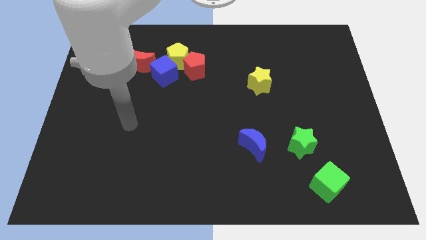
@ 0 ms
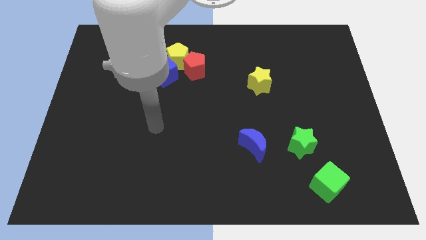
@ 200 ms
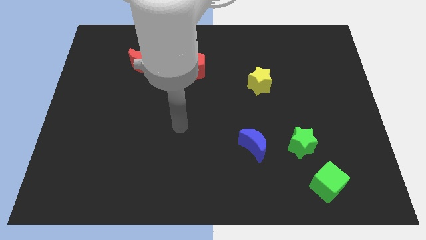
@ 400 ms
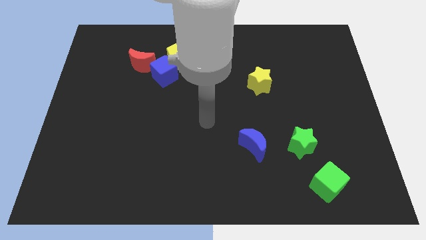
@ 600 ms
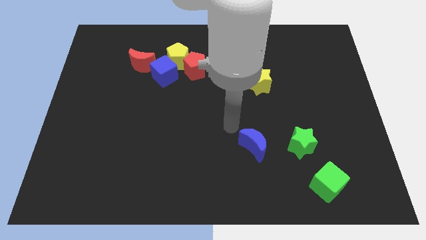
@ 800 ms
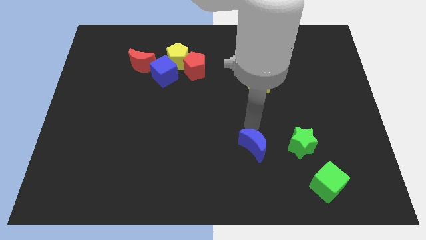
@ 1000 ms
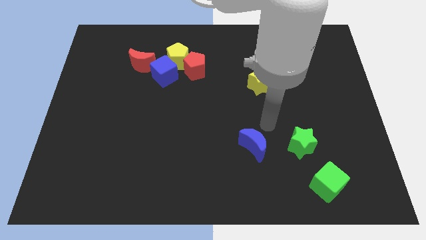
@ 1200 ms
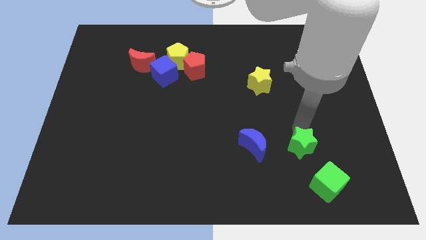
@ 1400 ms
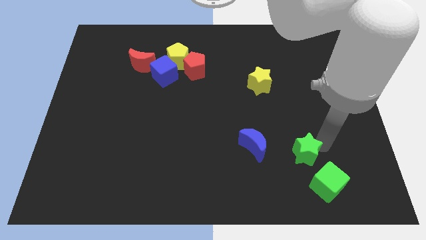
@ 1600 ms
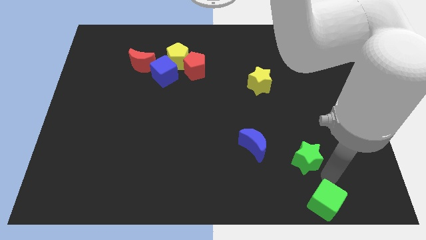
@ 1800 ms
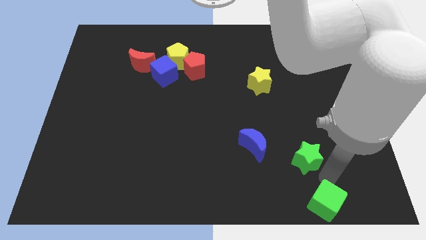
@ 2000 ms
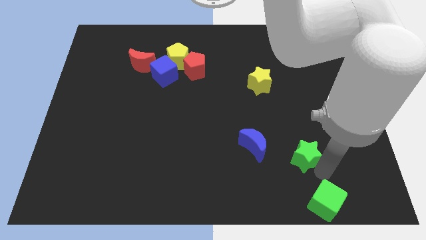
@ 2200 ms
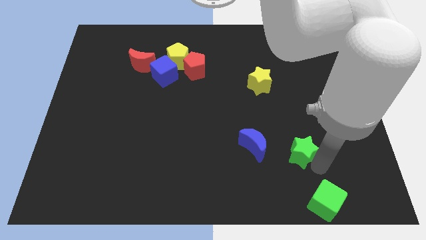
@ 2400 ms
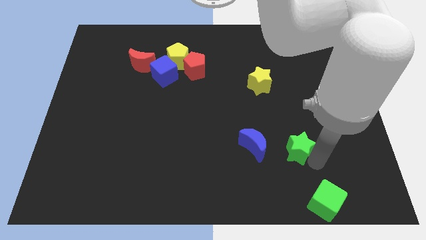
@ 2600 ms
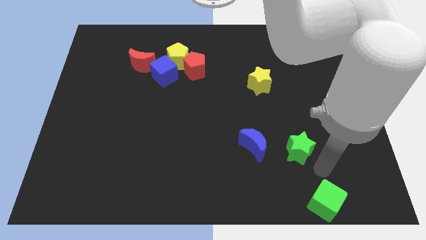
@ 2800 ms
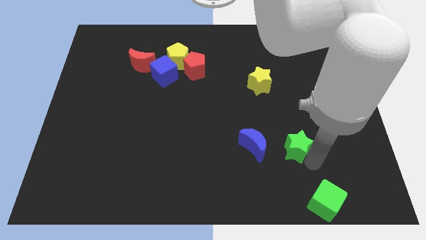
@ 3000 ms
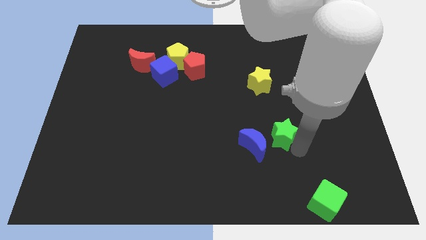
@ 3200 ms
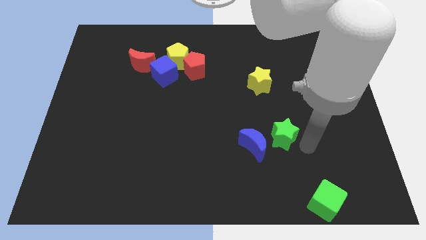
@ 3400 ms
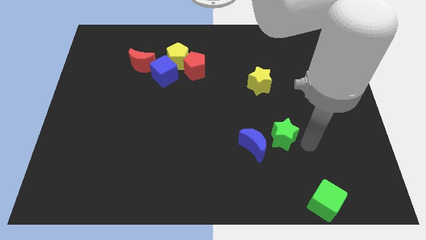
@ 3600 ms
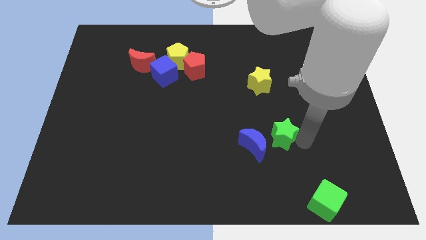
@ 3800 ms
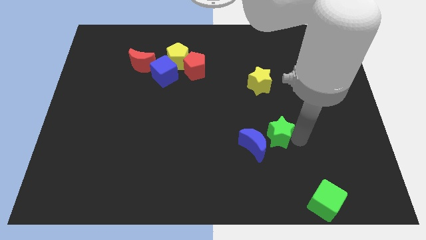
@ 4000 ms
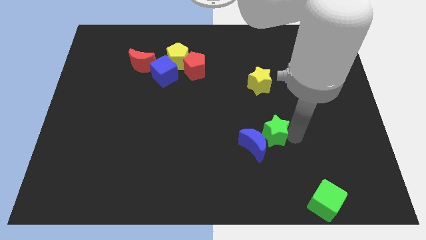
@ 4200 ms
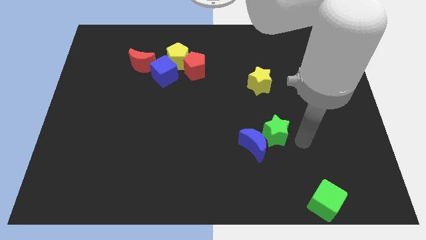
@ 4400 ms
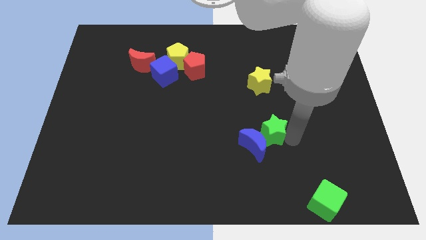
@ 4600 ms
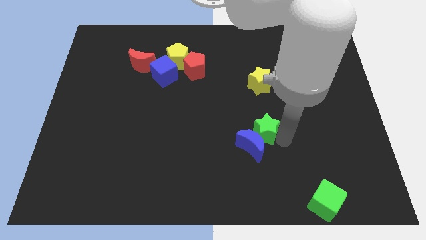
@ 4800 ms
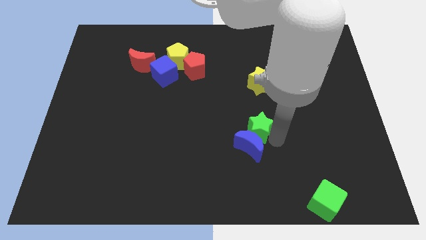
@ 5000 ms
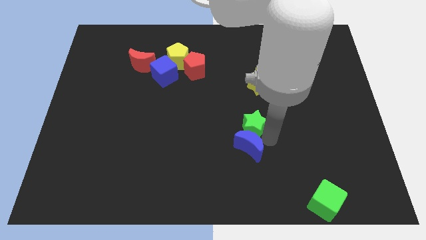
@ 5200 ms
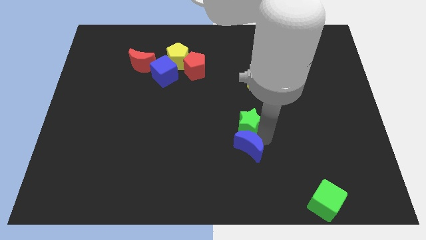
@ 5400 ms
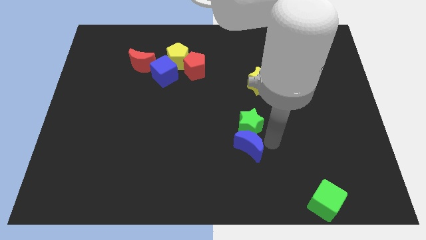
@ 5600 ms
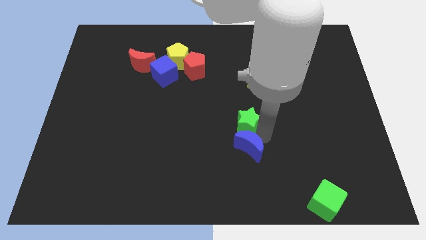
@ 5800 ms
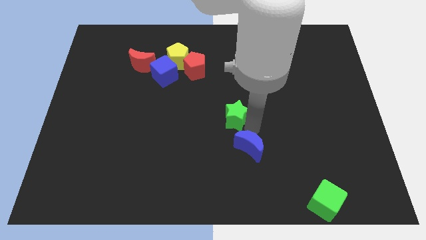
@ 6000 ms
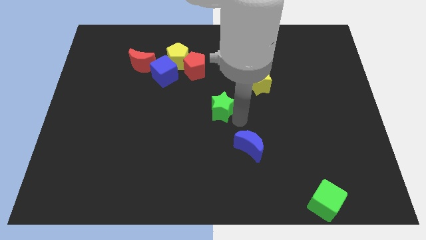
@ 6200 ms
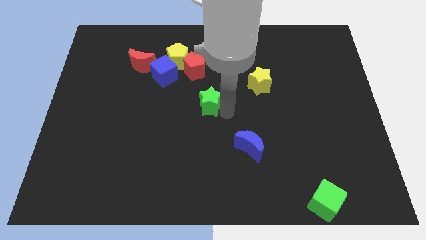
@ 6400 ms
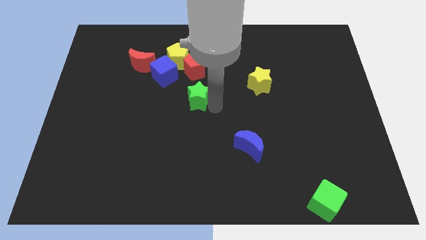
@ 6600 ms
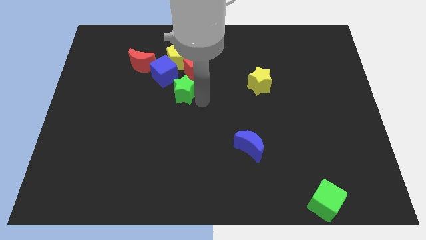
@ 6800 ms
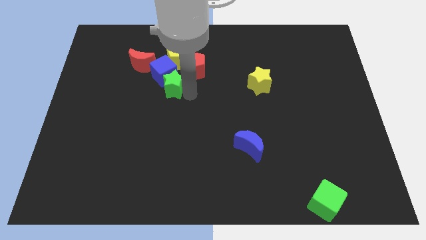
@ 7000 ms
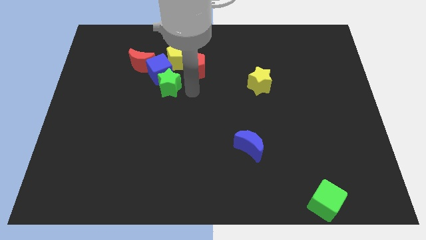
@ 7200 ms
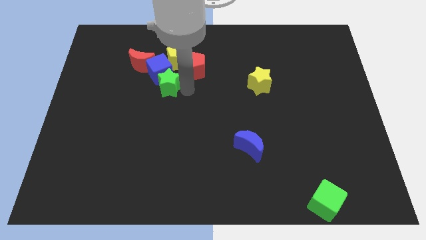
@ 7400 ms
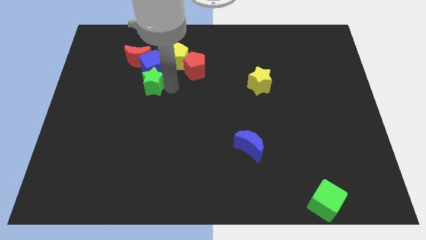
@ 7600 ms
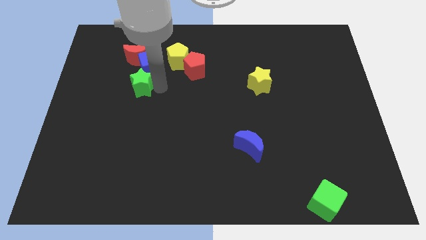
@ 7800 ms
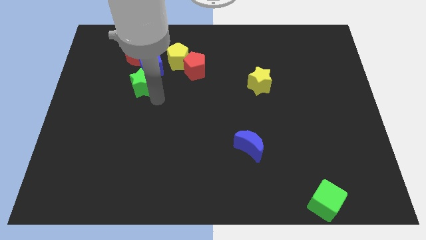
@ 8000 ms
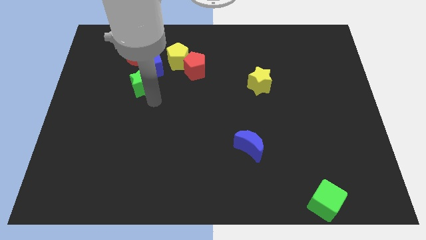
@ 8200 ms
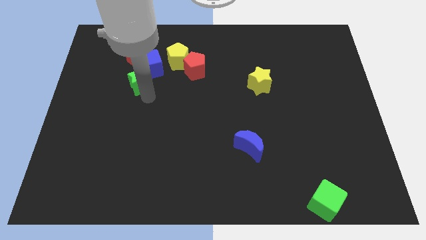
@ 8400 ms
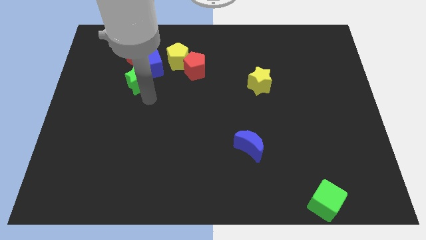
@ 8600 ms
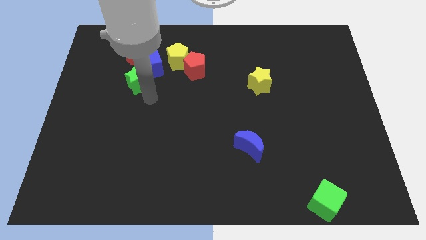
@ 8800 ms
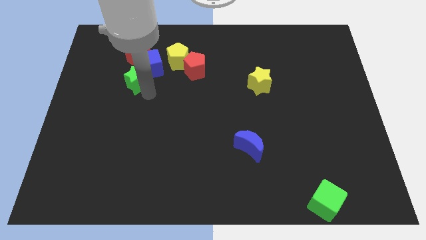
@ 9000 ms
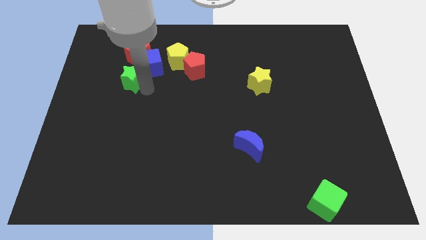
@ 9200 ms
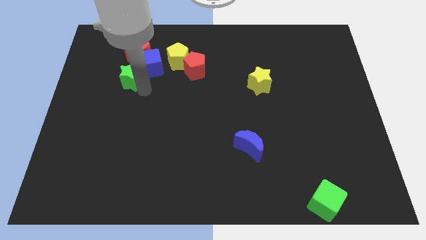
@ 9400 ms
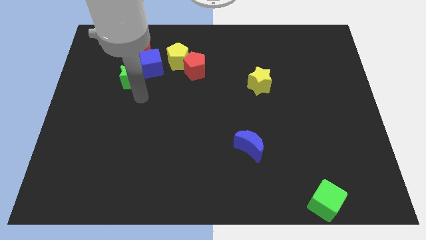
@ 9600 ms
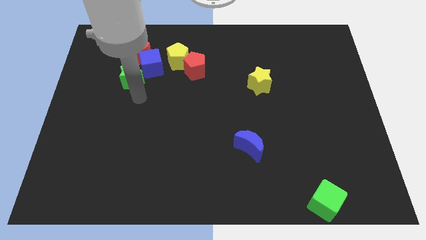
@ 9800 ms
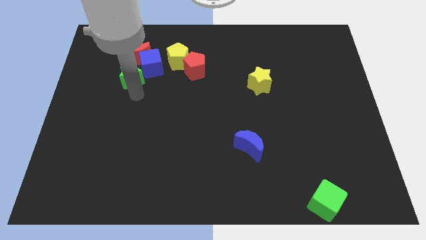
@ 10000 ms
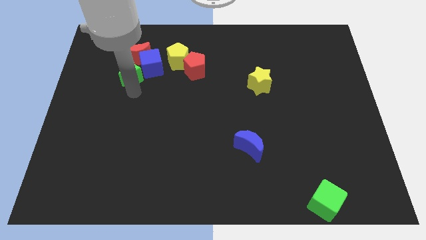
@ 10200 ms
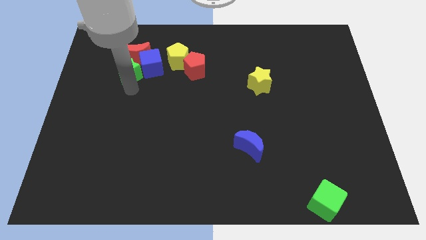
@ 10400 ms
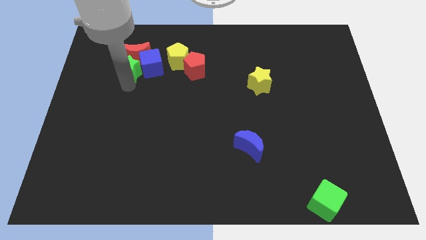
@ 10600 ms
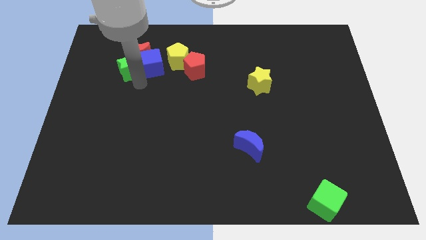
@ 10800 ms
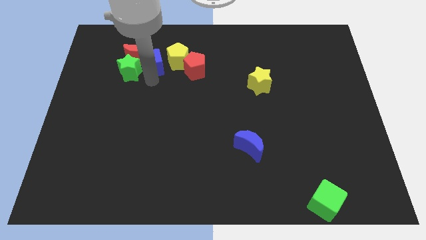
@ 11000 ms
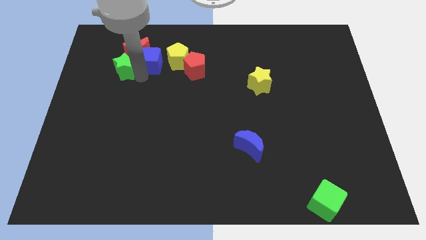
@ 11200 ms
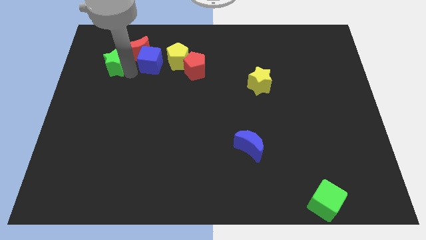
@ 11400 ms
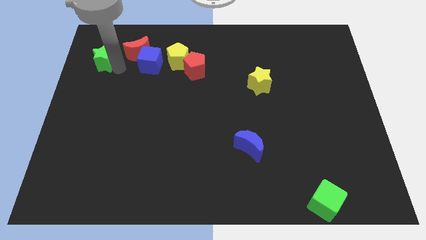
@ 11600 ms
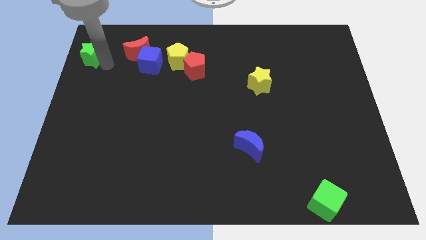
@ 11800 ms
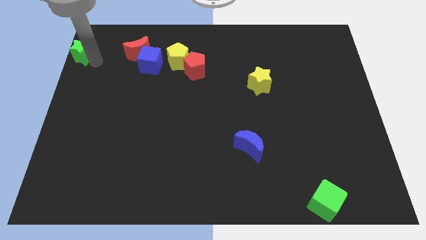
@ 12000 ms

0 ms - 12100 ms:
move the green star to the top left of the board

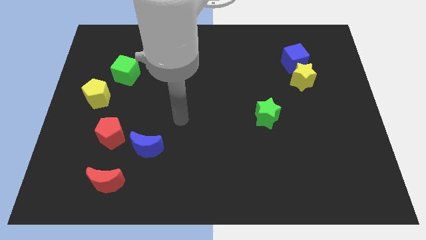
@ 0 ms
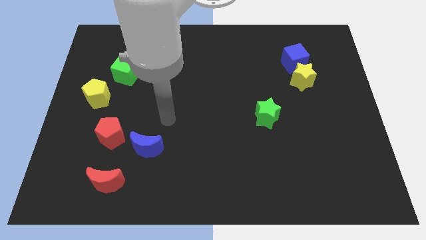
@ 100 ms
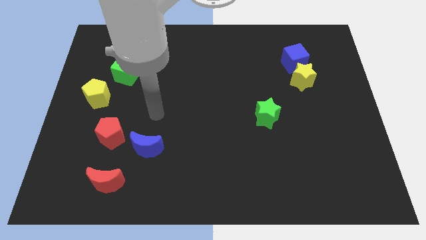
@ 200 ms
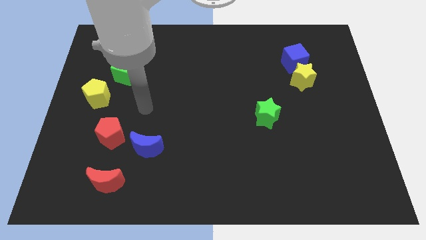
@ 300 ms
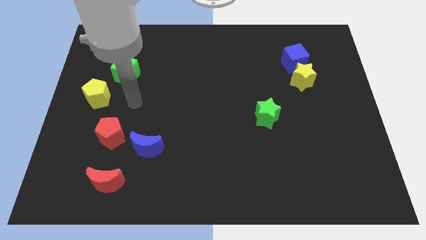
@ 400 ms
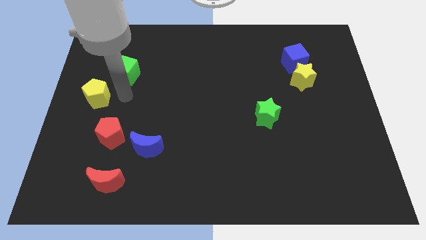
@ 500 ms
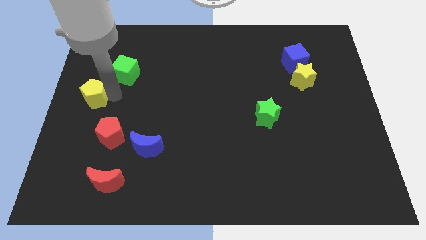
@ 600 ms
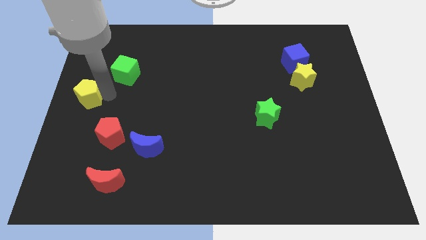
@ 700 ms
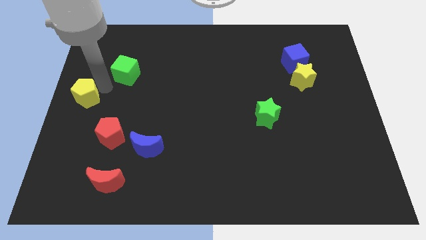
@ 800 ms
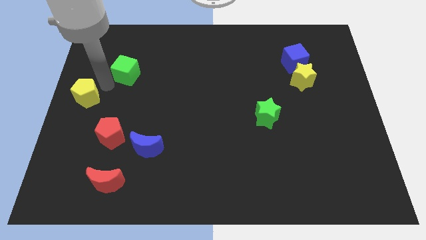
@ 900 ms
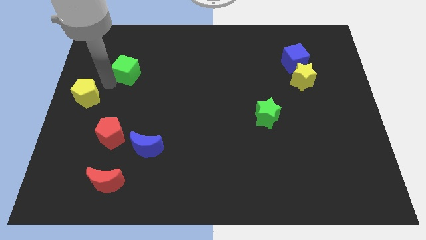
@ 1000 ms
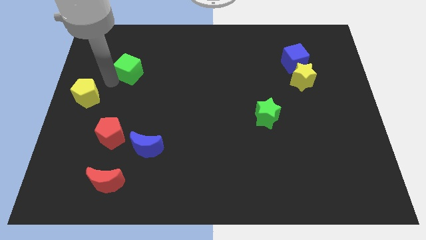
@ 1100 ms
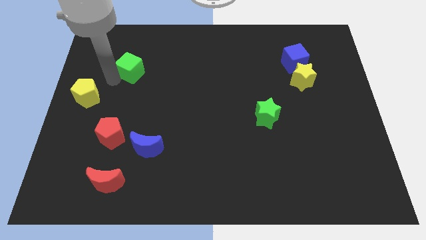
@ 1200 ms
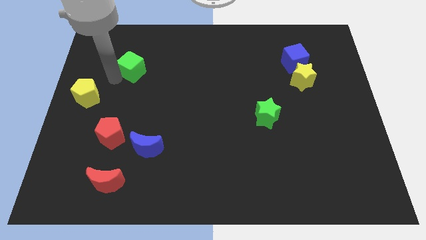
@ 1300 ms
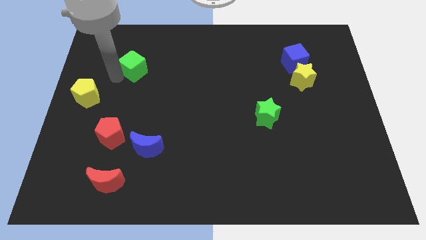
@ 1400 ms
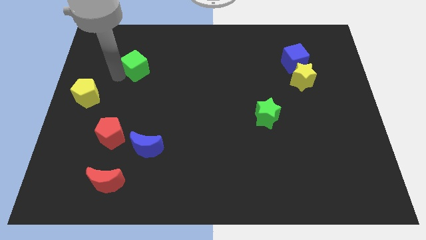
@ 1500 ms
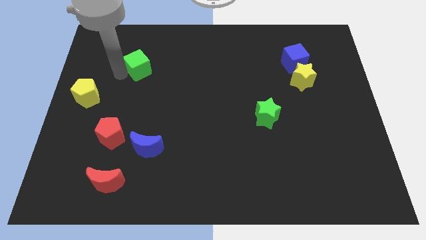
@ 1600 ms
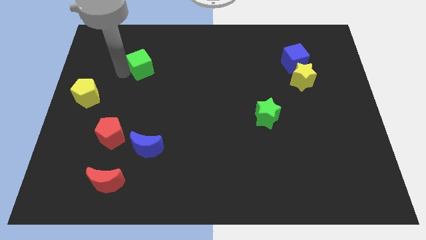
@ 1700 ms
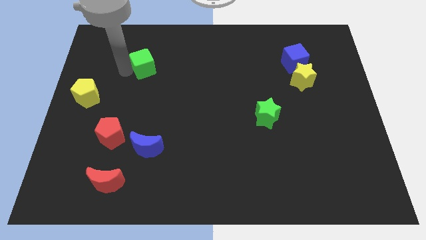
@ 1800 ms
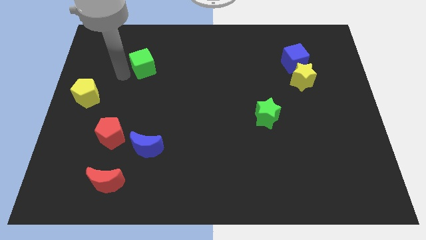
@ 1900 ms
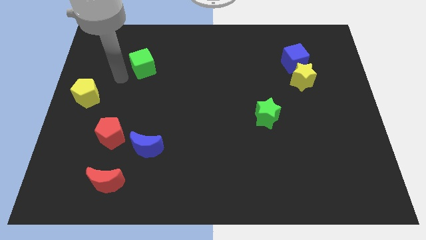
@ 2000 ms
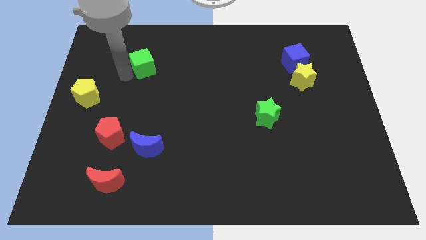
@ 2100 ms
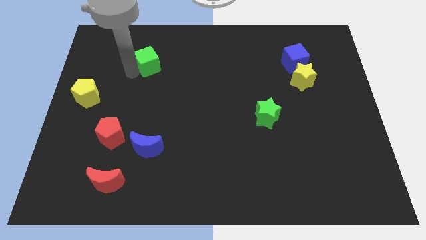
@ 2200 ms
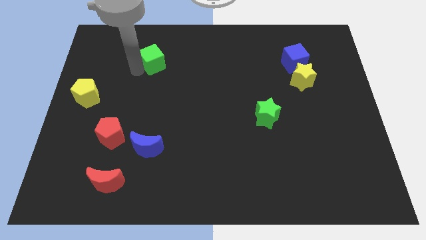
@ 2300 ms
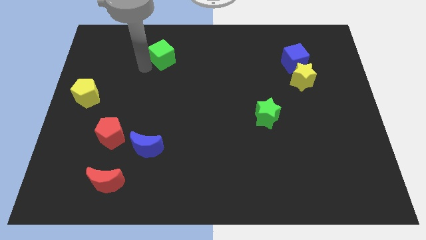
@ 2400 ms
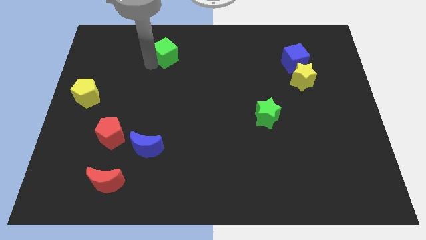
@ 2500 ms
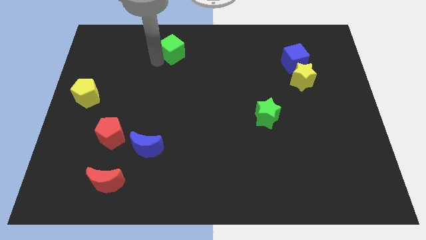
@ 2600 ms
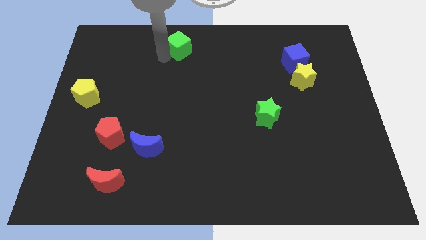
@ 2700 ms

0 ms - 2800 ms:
move the green cube to the top
